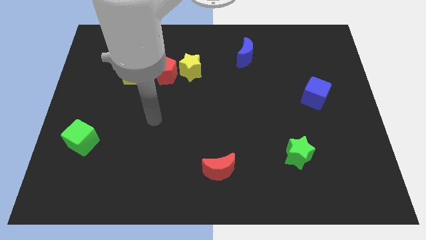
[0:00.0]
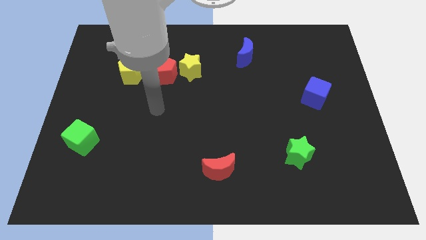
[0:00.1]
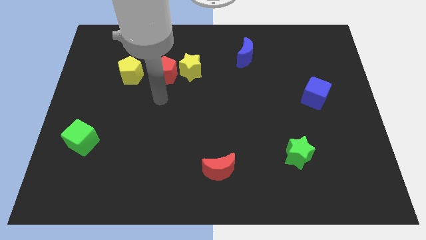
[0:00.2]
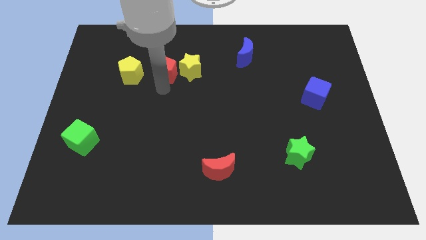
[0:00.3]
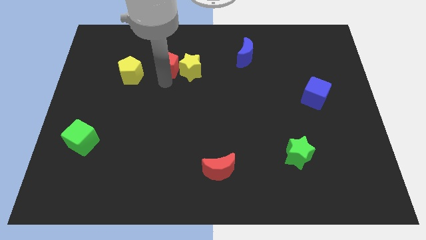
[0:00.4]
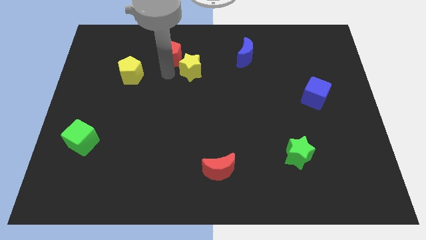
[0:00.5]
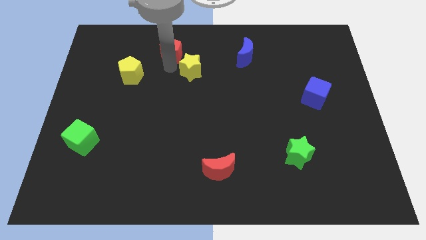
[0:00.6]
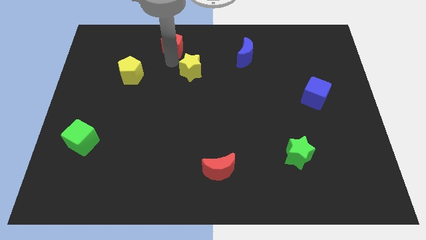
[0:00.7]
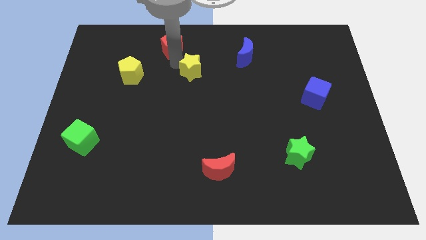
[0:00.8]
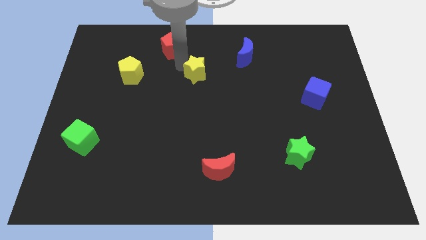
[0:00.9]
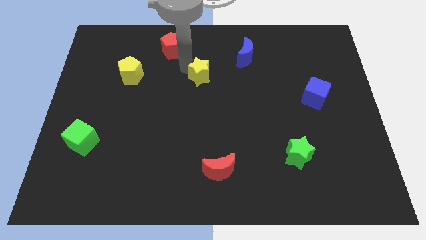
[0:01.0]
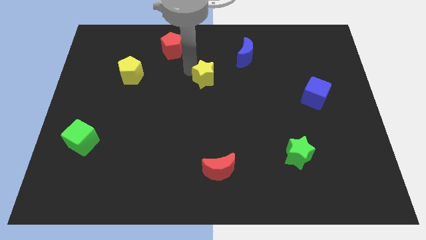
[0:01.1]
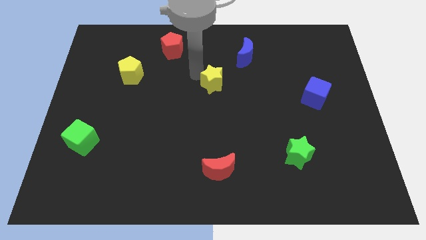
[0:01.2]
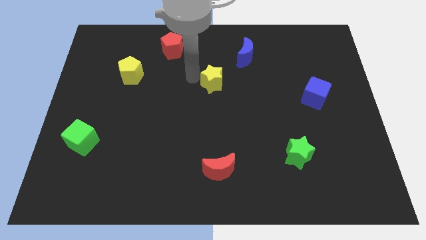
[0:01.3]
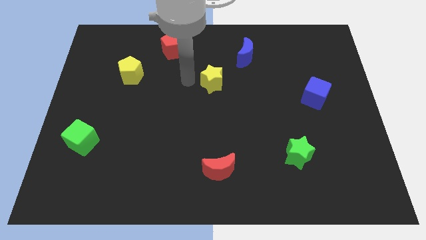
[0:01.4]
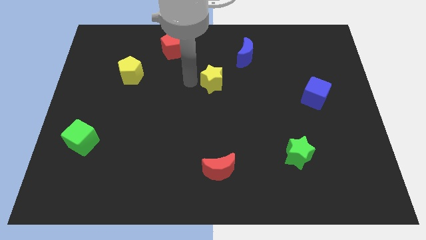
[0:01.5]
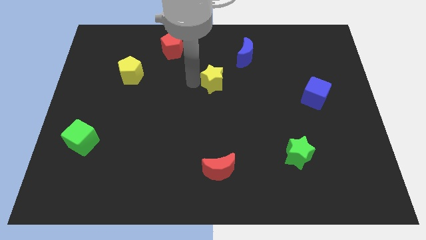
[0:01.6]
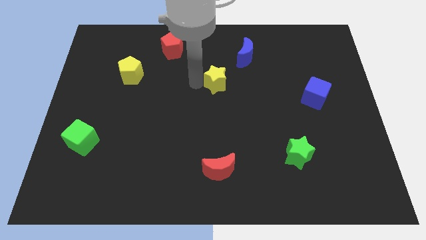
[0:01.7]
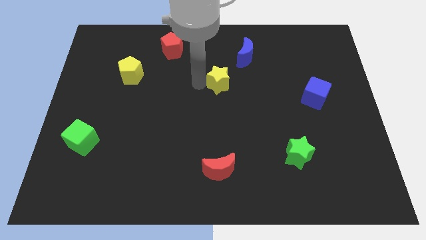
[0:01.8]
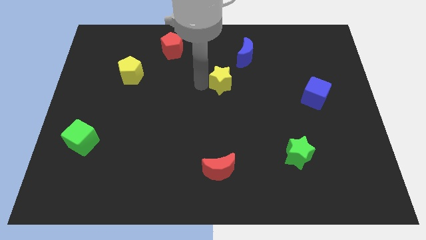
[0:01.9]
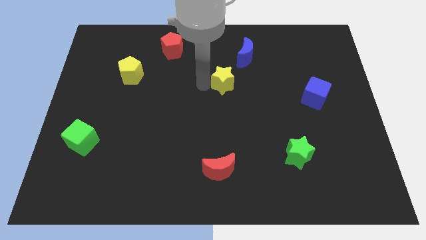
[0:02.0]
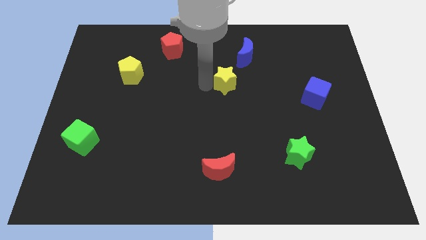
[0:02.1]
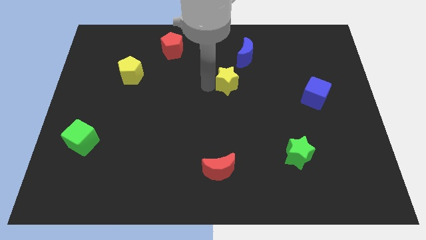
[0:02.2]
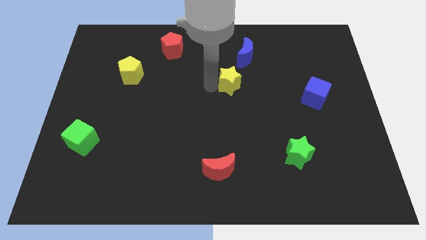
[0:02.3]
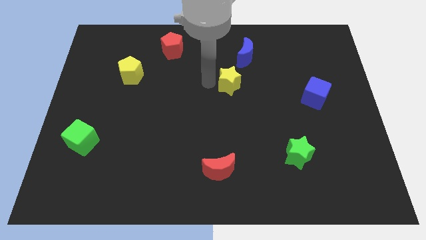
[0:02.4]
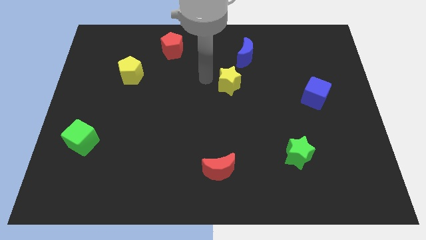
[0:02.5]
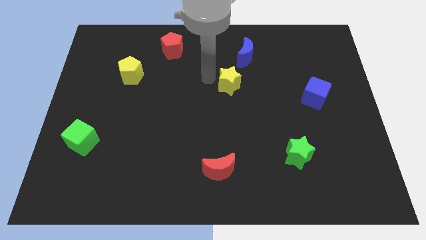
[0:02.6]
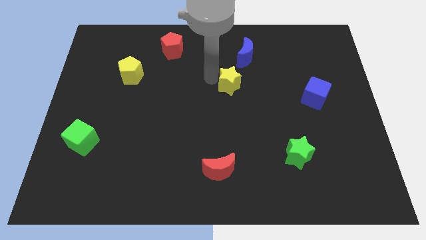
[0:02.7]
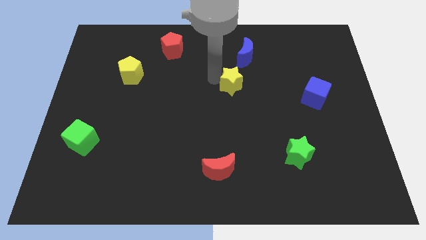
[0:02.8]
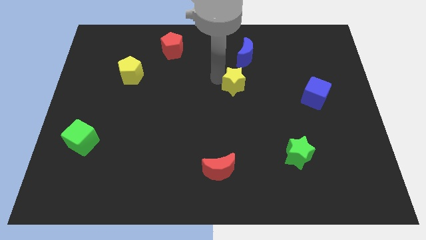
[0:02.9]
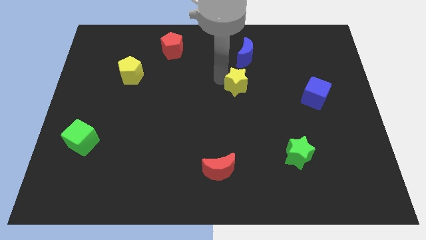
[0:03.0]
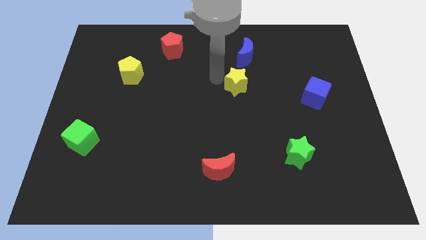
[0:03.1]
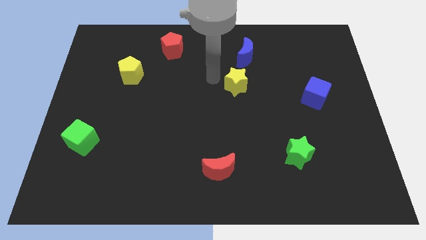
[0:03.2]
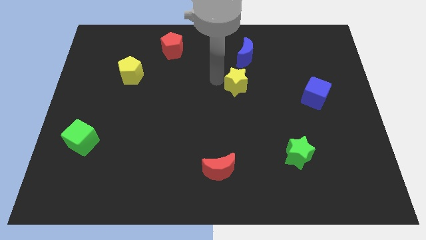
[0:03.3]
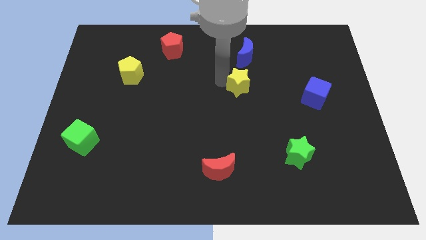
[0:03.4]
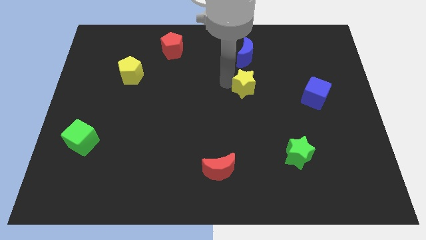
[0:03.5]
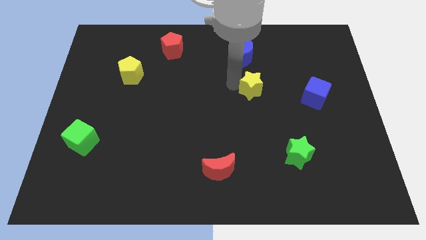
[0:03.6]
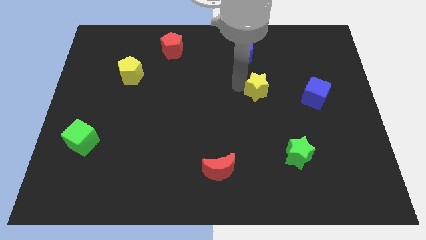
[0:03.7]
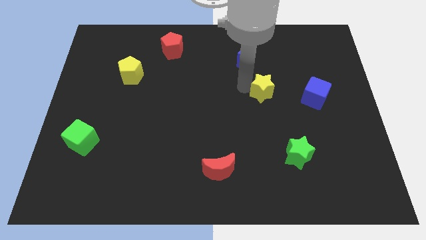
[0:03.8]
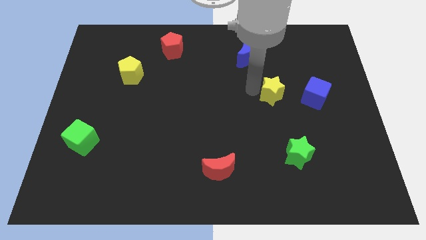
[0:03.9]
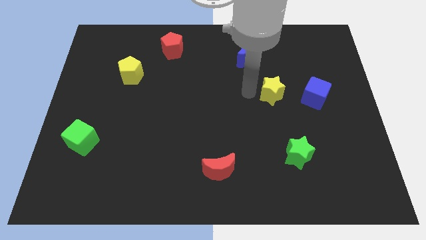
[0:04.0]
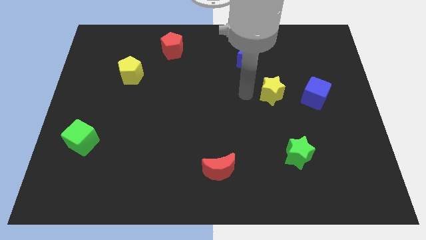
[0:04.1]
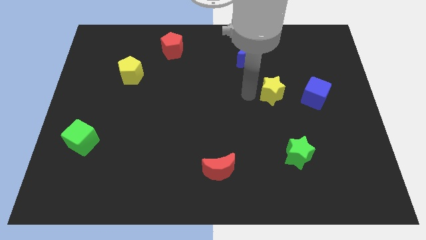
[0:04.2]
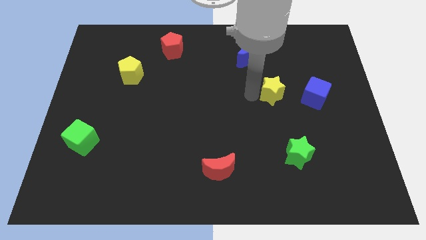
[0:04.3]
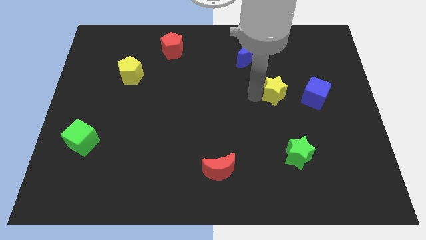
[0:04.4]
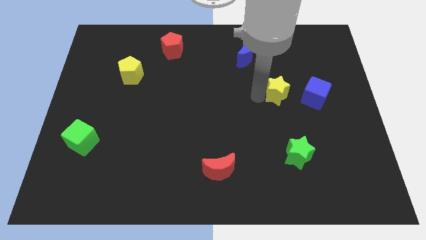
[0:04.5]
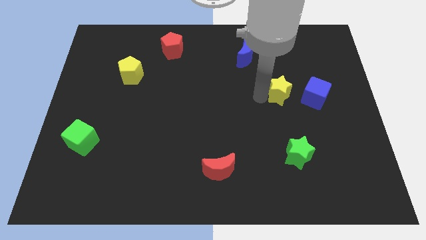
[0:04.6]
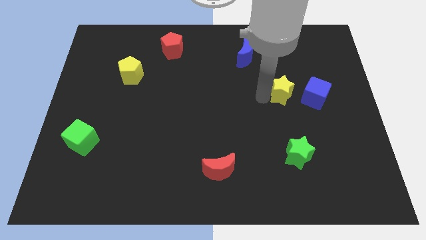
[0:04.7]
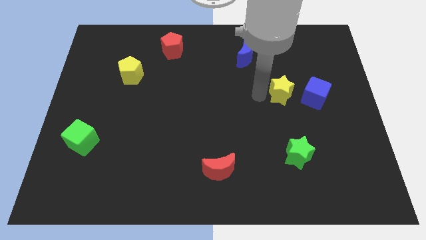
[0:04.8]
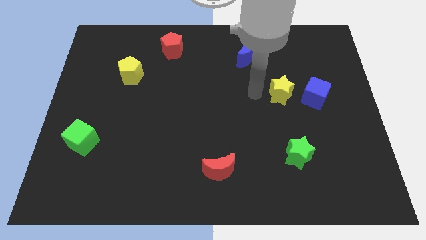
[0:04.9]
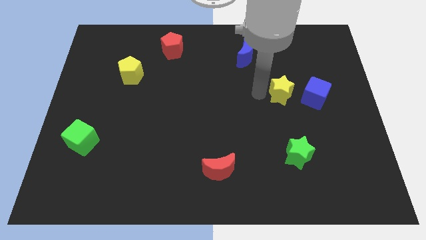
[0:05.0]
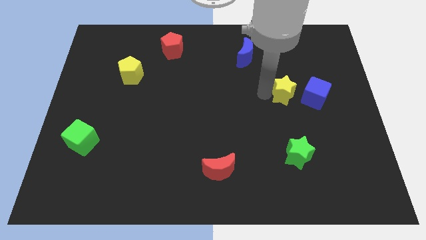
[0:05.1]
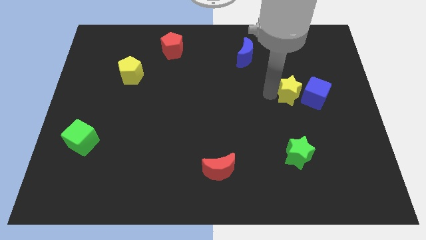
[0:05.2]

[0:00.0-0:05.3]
put the yellow star to the blue cube

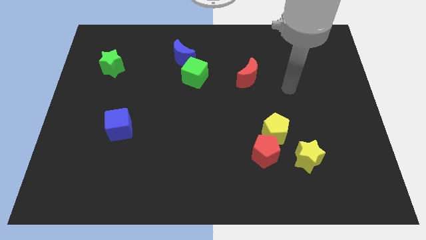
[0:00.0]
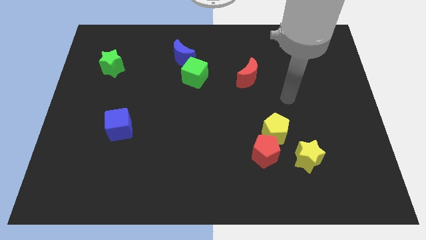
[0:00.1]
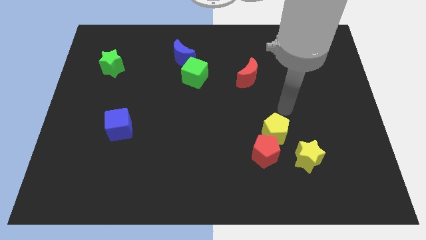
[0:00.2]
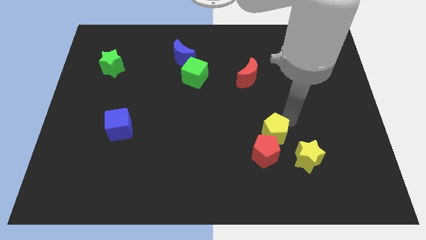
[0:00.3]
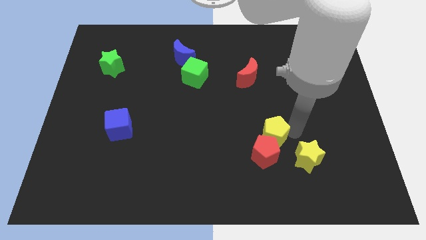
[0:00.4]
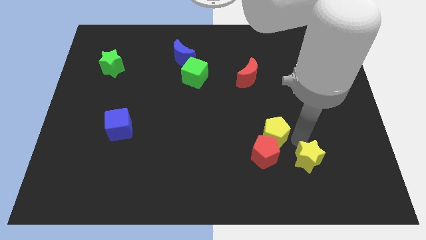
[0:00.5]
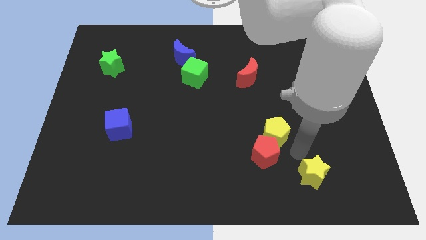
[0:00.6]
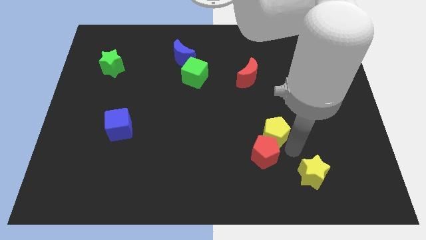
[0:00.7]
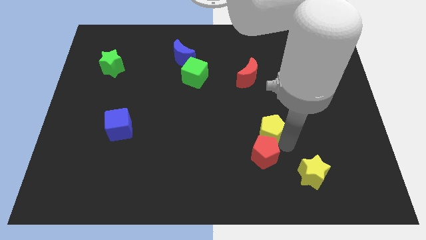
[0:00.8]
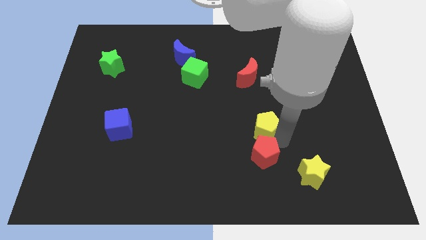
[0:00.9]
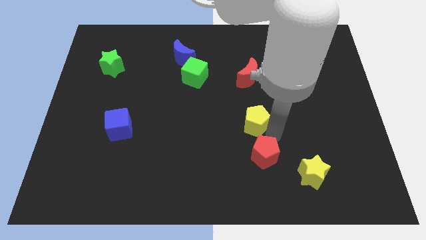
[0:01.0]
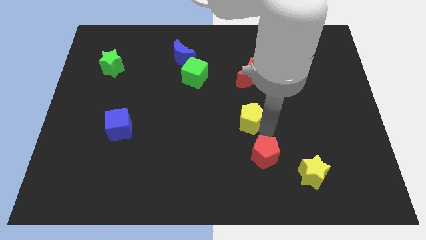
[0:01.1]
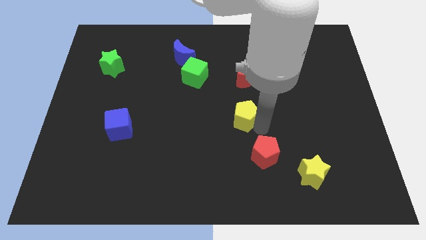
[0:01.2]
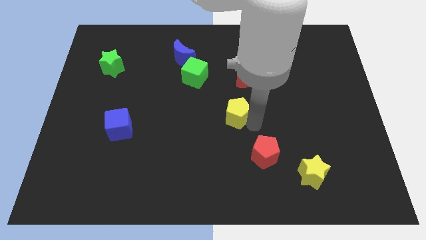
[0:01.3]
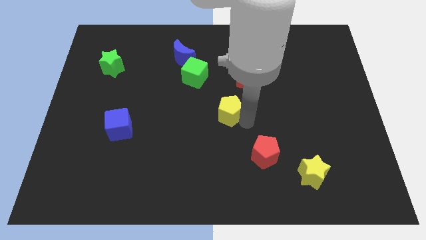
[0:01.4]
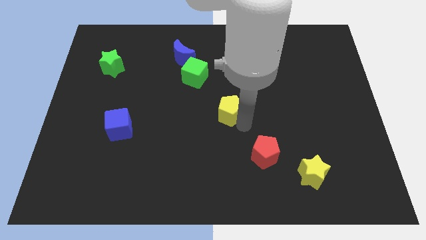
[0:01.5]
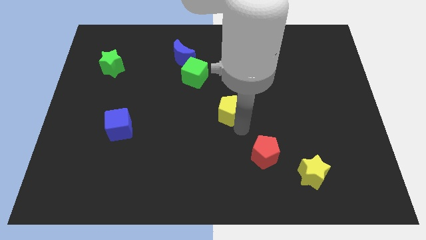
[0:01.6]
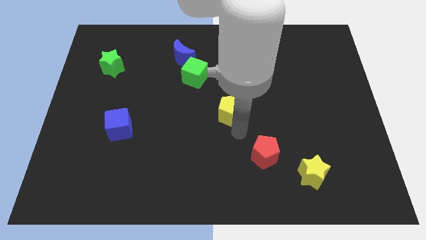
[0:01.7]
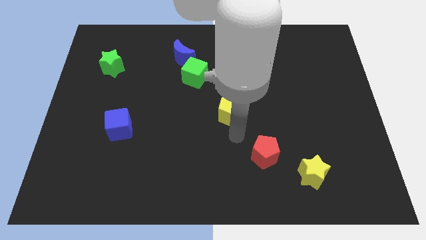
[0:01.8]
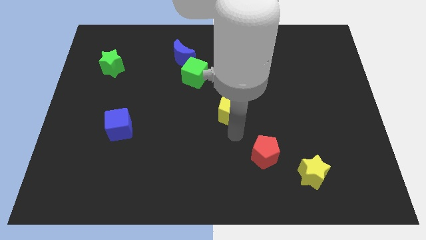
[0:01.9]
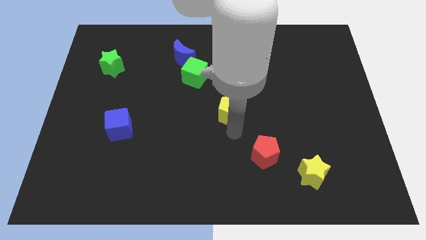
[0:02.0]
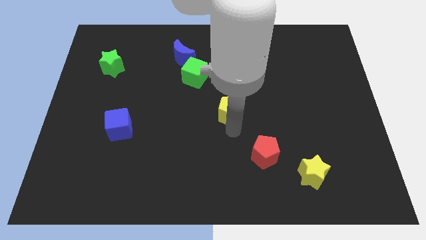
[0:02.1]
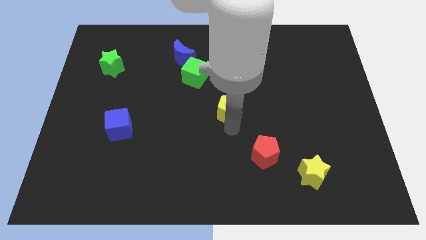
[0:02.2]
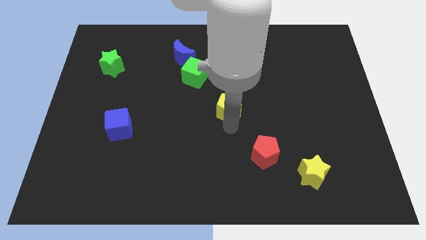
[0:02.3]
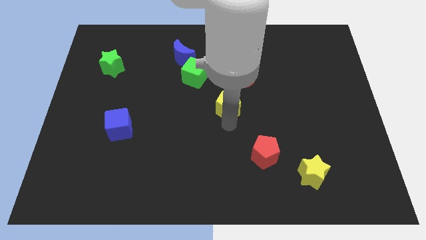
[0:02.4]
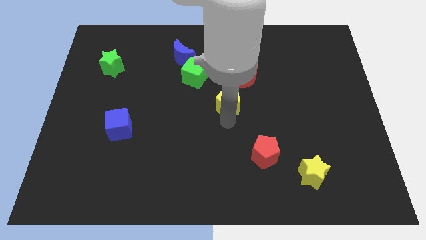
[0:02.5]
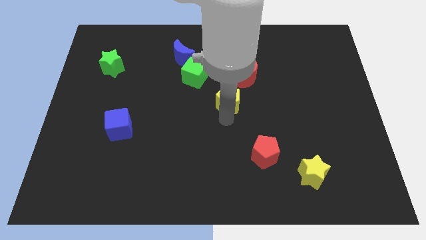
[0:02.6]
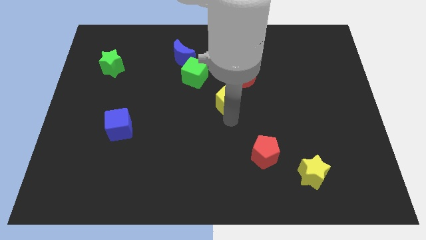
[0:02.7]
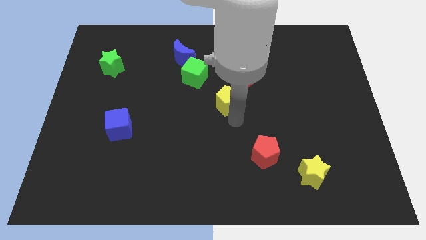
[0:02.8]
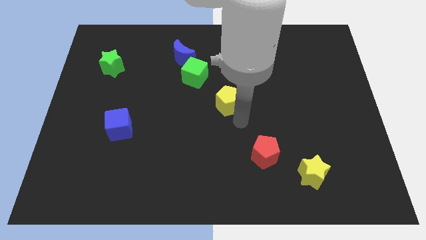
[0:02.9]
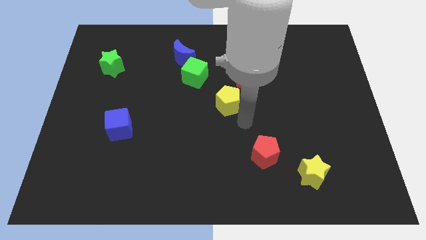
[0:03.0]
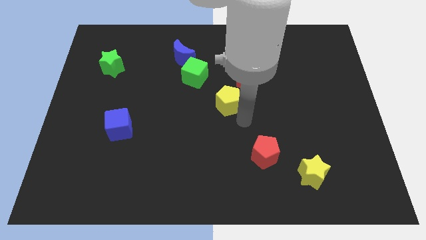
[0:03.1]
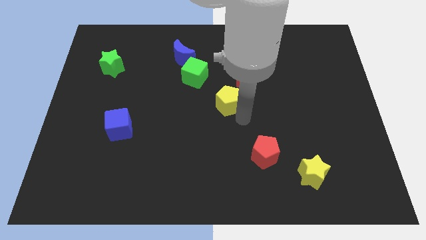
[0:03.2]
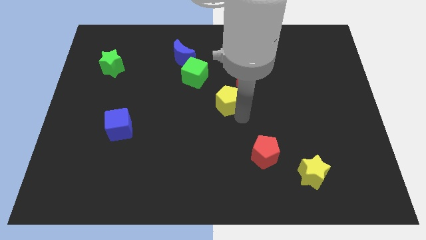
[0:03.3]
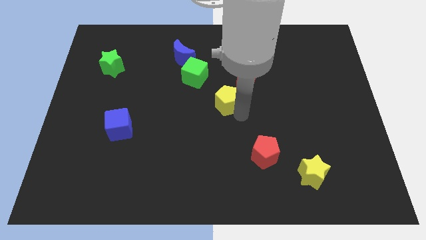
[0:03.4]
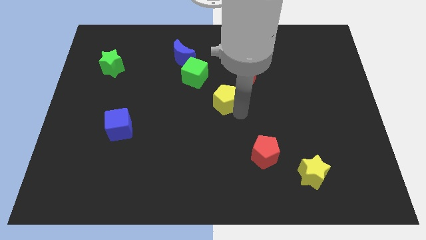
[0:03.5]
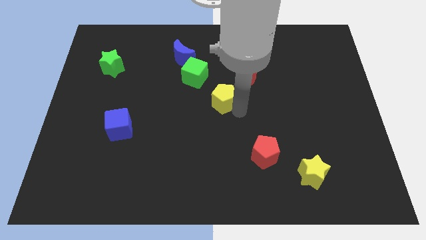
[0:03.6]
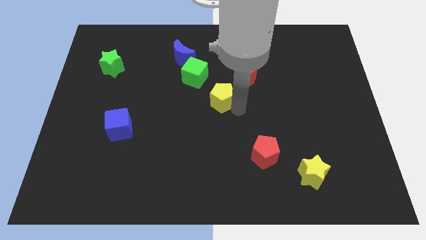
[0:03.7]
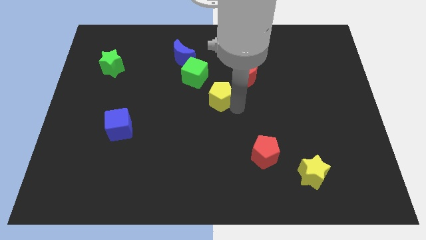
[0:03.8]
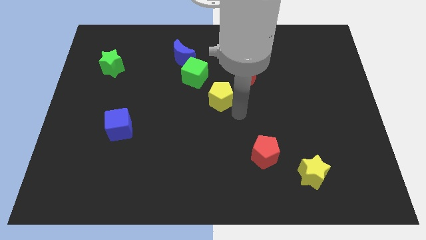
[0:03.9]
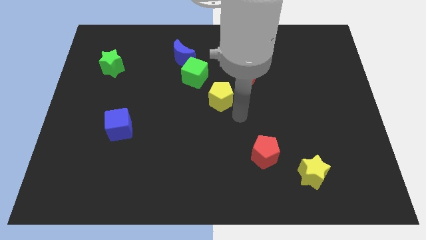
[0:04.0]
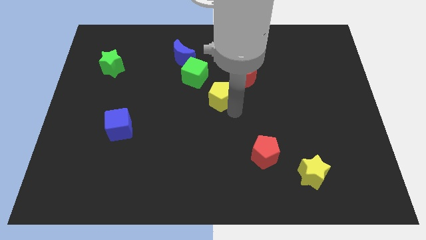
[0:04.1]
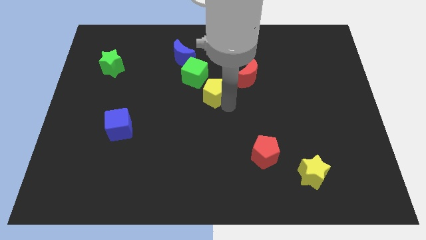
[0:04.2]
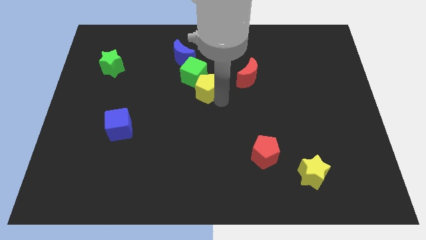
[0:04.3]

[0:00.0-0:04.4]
move the yellow pentagon to the green cube
